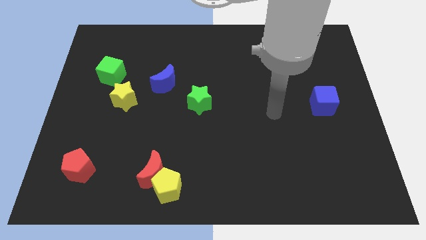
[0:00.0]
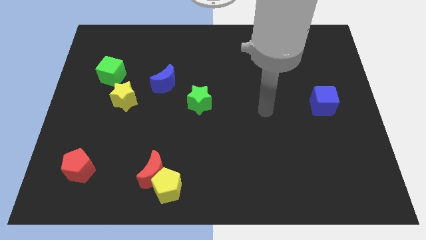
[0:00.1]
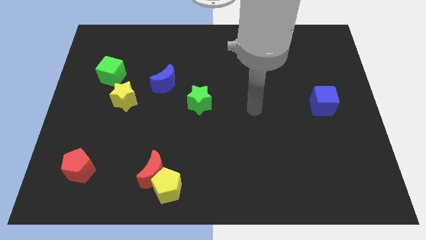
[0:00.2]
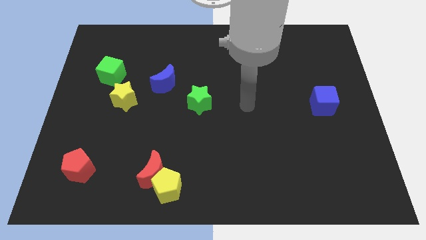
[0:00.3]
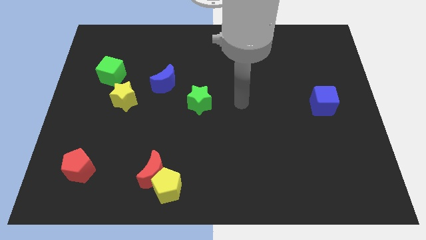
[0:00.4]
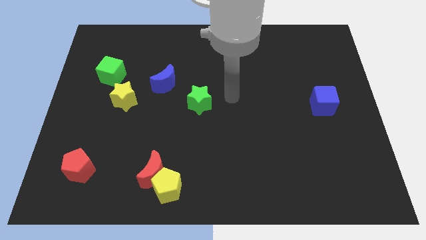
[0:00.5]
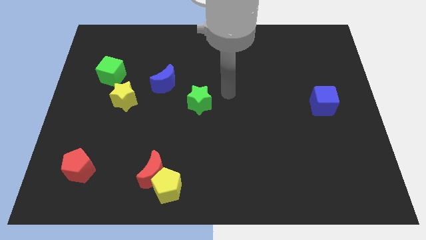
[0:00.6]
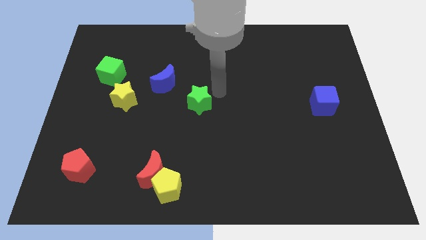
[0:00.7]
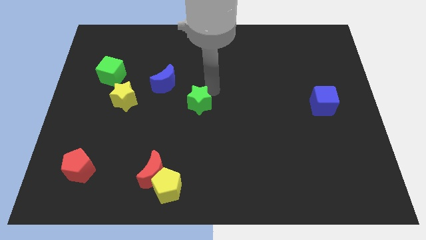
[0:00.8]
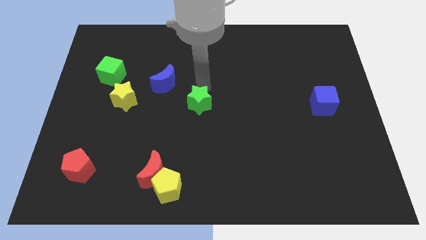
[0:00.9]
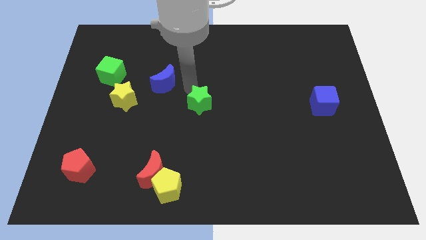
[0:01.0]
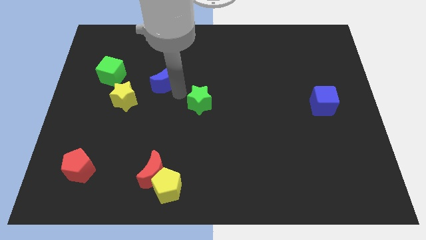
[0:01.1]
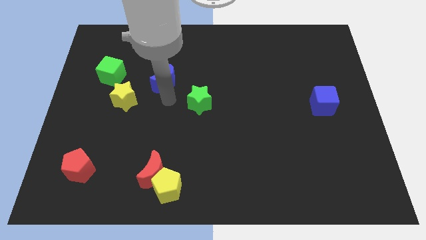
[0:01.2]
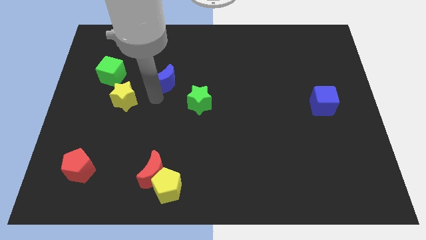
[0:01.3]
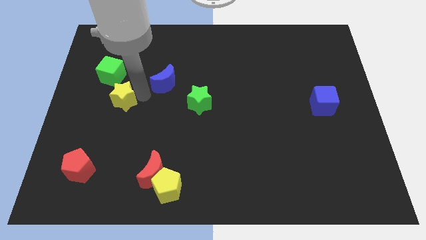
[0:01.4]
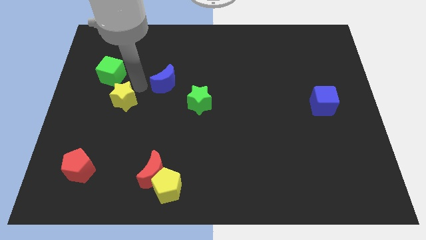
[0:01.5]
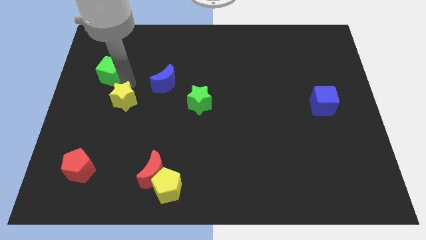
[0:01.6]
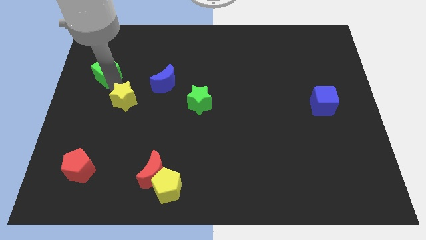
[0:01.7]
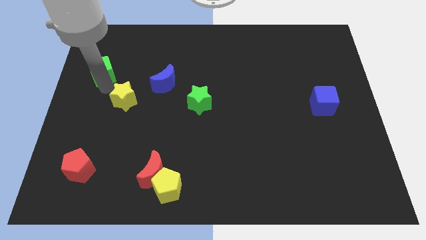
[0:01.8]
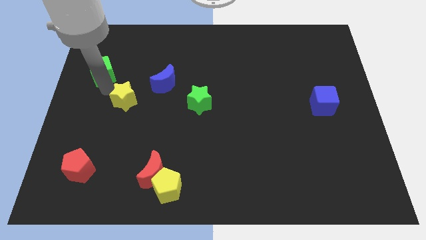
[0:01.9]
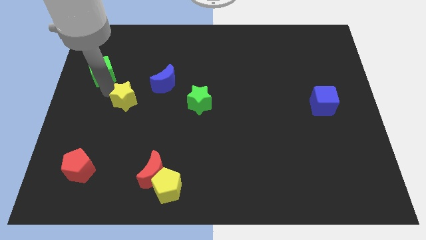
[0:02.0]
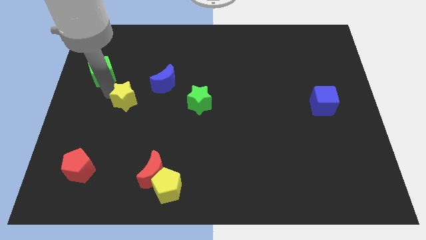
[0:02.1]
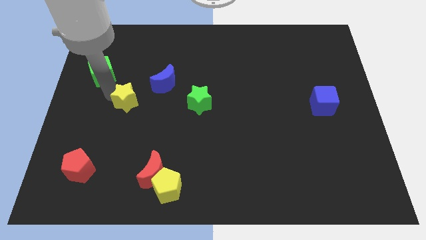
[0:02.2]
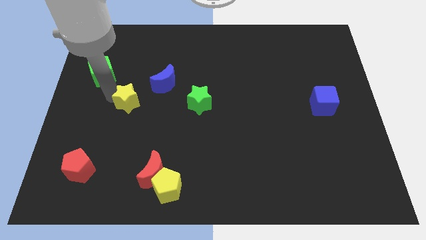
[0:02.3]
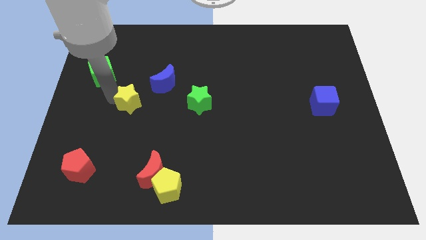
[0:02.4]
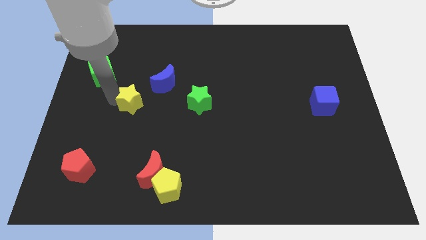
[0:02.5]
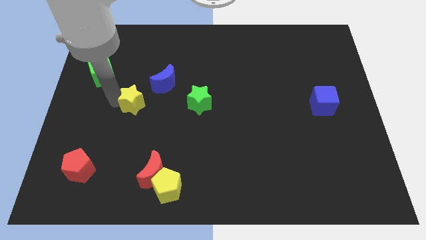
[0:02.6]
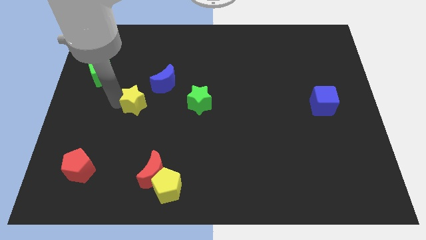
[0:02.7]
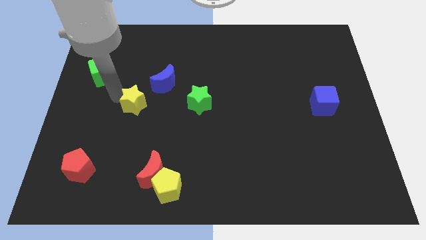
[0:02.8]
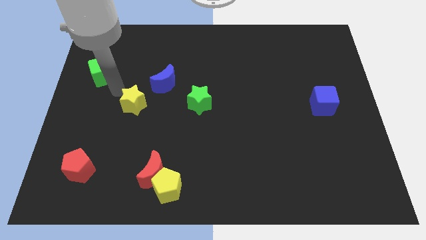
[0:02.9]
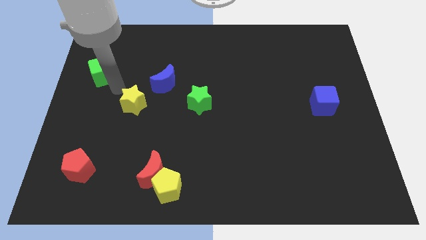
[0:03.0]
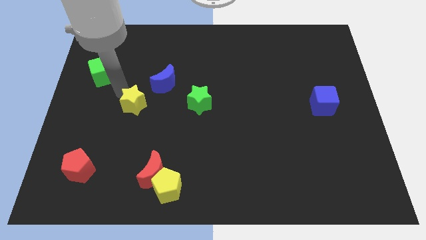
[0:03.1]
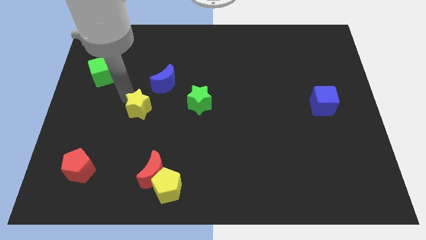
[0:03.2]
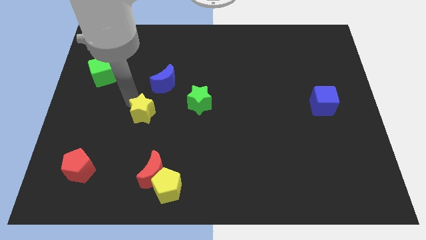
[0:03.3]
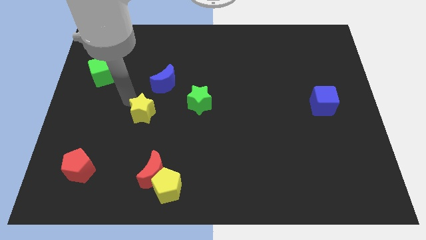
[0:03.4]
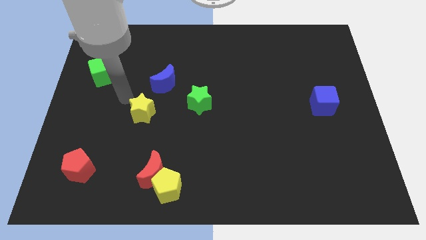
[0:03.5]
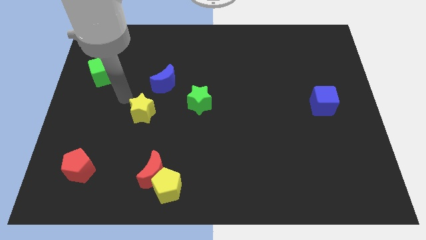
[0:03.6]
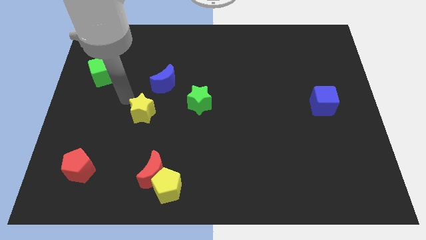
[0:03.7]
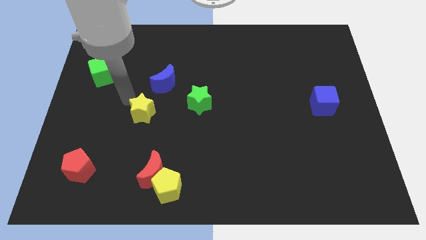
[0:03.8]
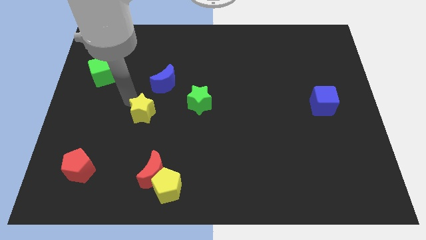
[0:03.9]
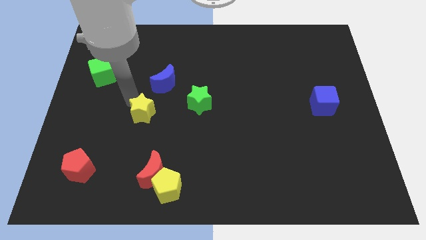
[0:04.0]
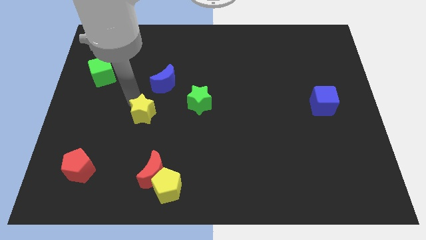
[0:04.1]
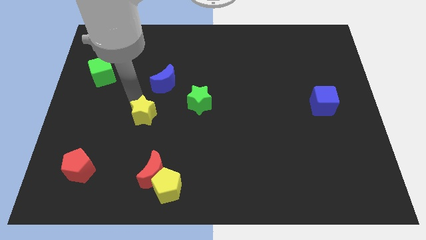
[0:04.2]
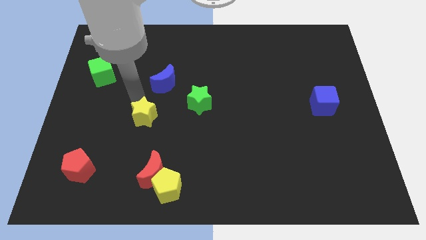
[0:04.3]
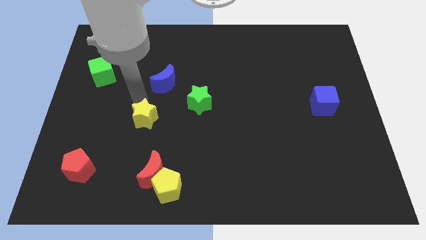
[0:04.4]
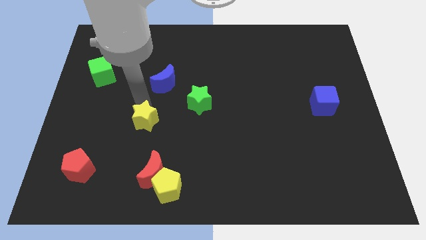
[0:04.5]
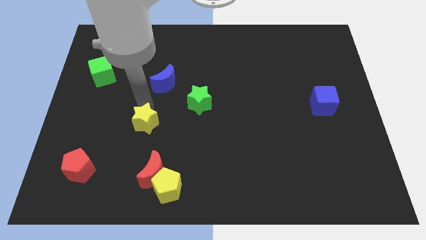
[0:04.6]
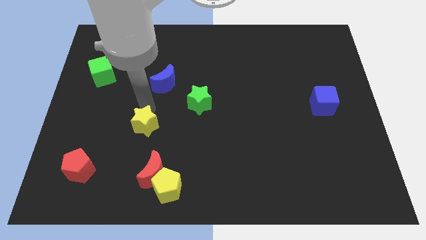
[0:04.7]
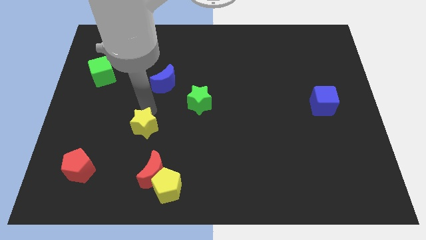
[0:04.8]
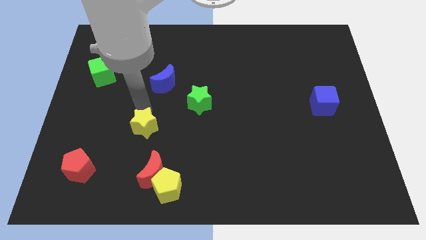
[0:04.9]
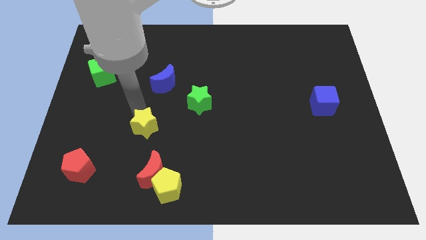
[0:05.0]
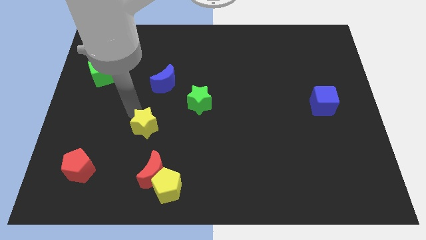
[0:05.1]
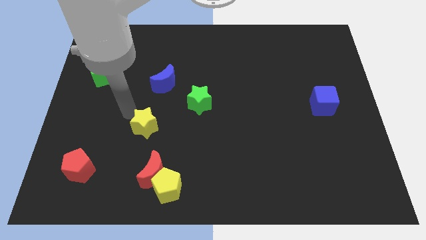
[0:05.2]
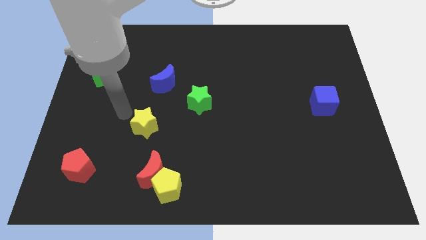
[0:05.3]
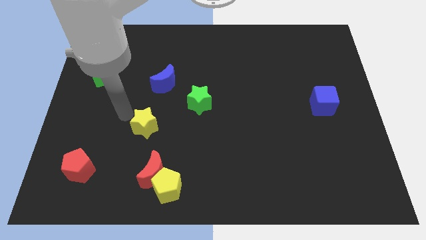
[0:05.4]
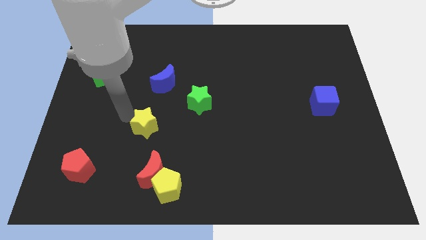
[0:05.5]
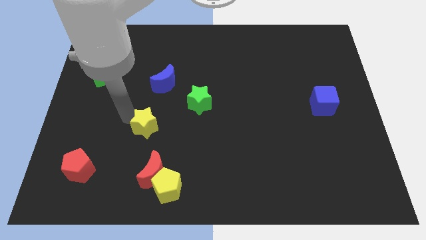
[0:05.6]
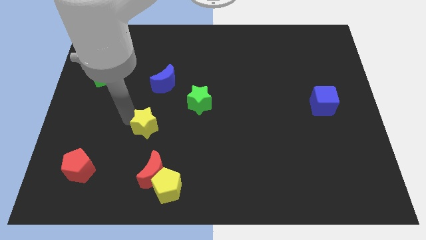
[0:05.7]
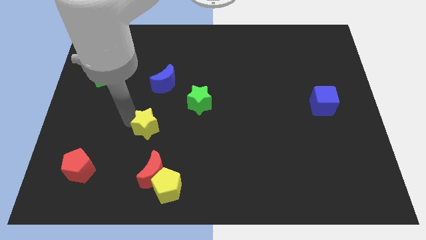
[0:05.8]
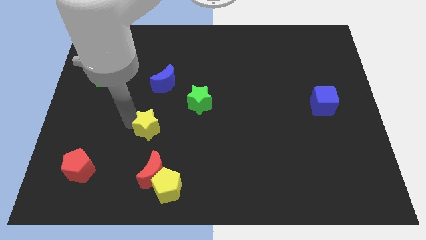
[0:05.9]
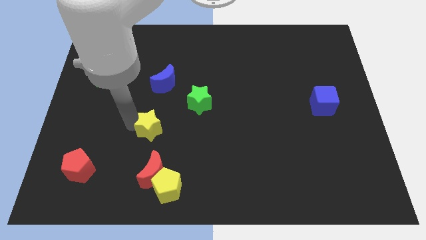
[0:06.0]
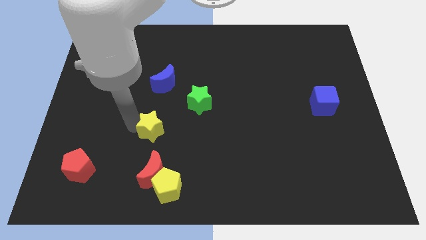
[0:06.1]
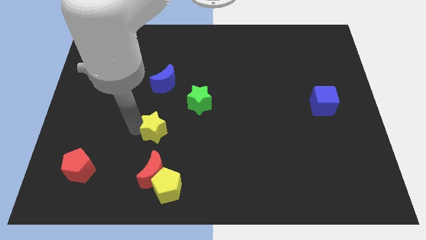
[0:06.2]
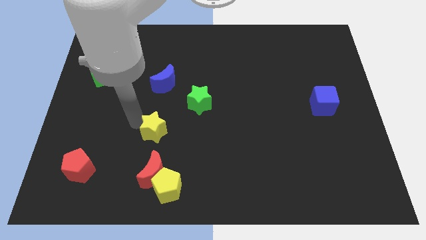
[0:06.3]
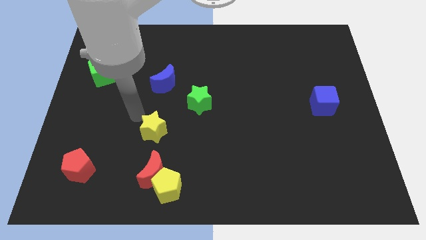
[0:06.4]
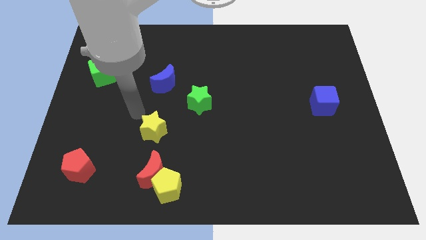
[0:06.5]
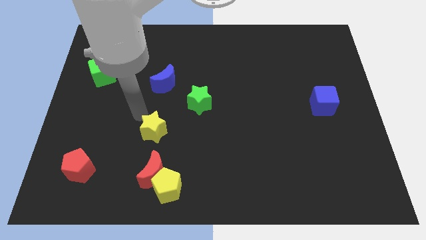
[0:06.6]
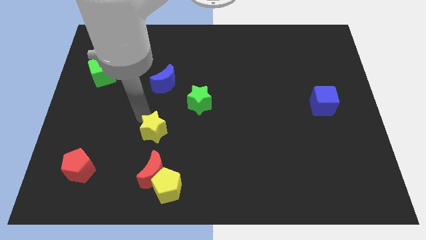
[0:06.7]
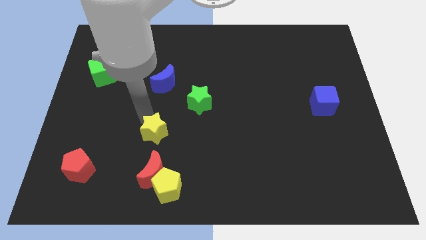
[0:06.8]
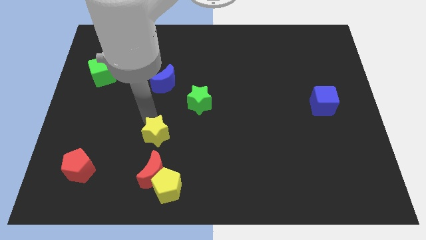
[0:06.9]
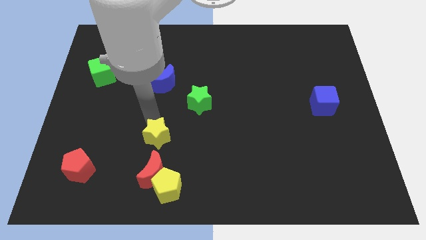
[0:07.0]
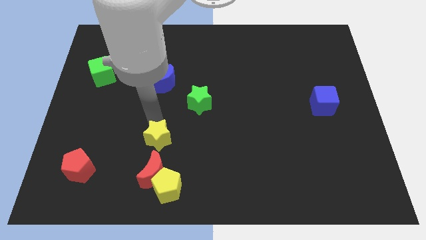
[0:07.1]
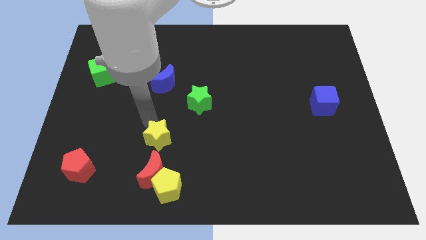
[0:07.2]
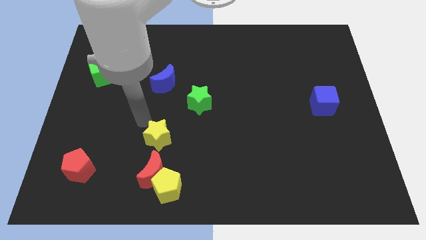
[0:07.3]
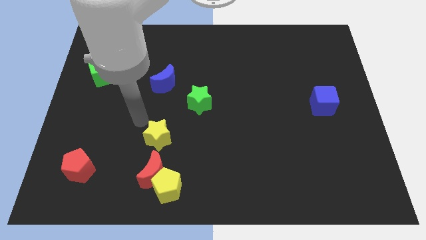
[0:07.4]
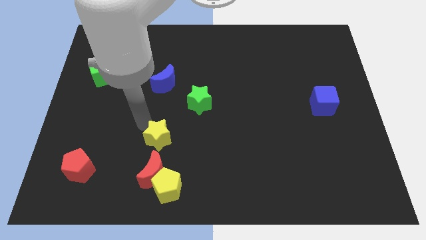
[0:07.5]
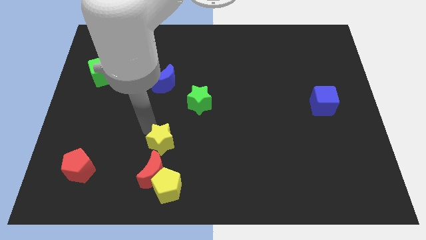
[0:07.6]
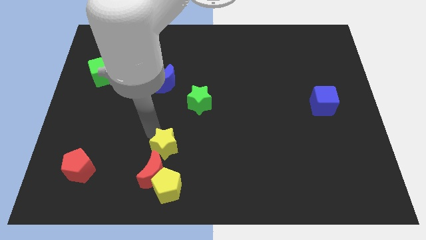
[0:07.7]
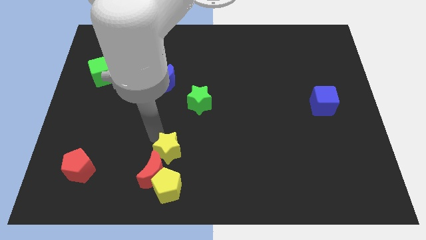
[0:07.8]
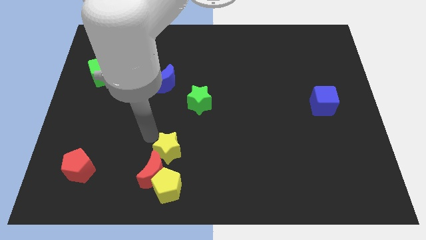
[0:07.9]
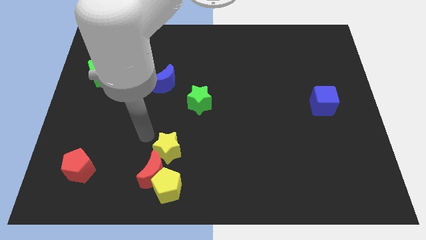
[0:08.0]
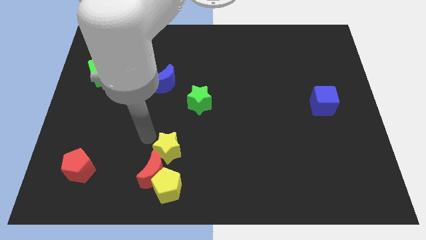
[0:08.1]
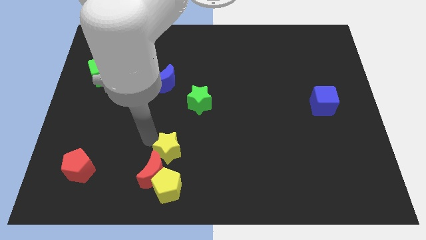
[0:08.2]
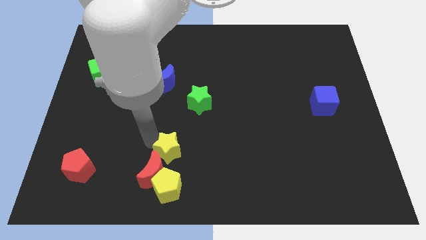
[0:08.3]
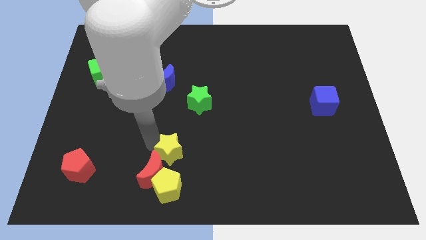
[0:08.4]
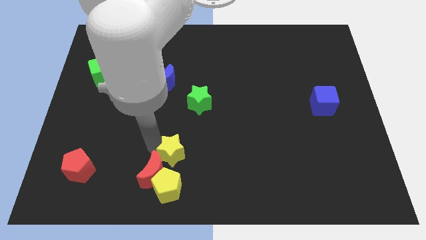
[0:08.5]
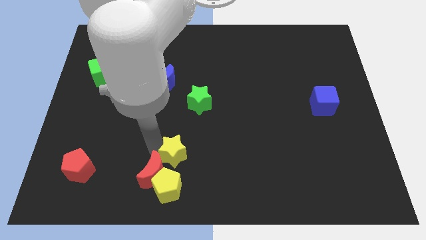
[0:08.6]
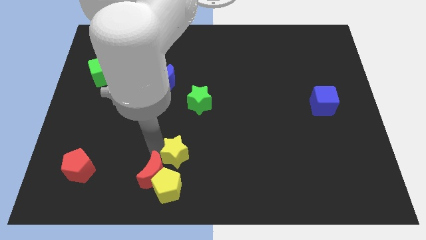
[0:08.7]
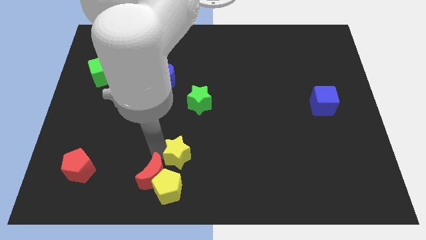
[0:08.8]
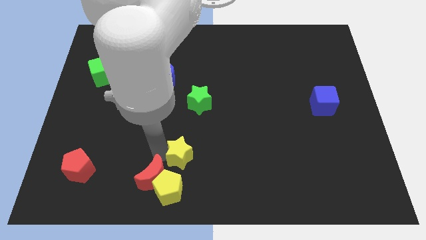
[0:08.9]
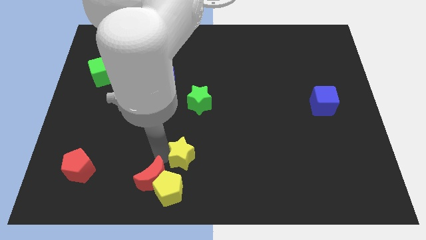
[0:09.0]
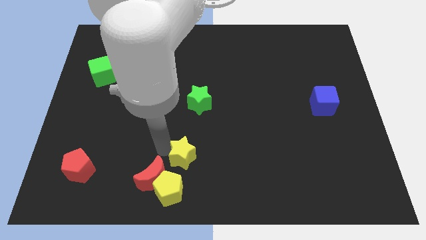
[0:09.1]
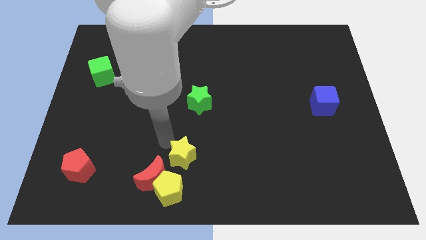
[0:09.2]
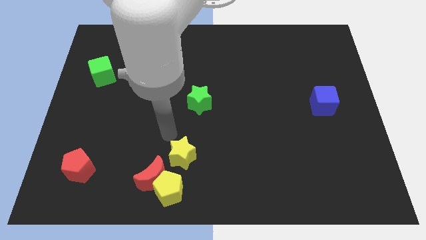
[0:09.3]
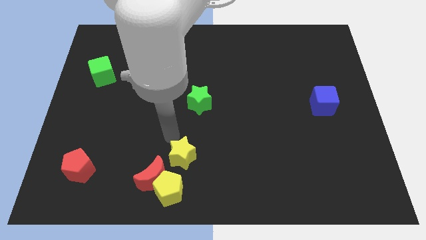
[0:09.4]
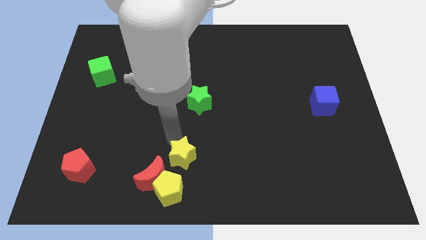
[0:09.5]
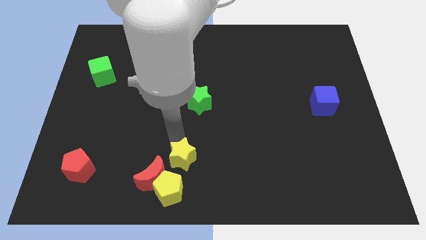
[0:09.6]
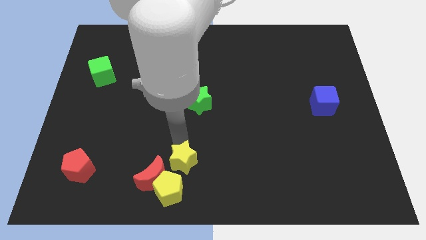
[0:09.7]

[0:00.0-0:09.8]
move the yellow star to the bottom side
